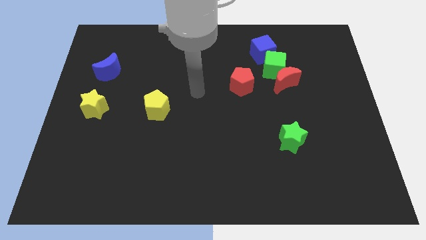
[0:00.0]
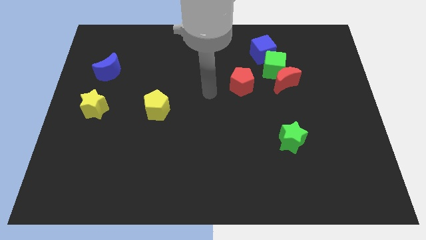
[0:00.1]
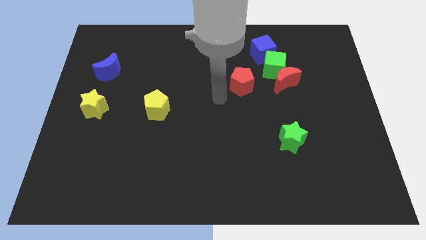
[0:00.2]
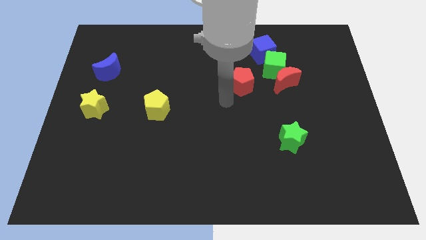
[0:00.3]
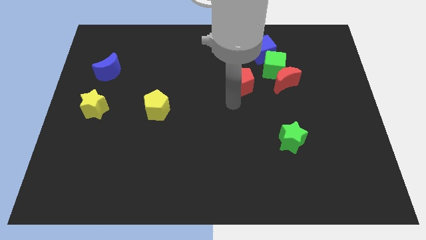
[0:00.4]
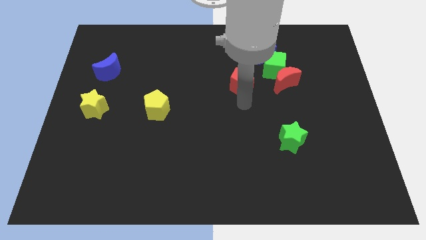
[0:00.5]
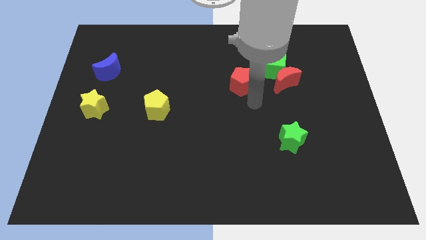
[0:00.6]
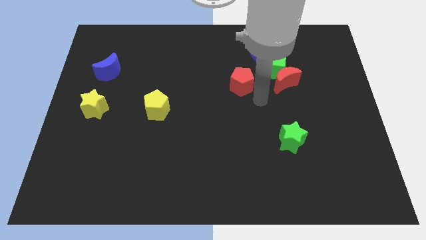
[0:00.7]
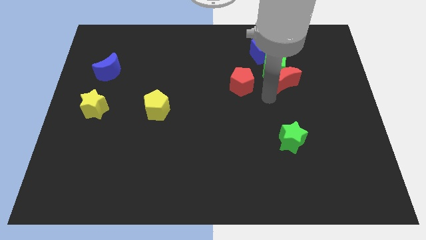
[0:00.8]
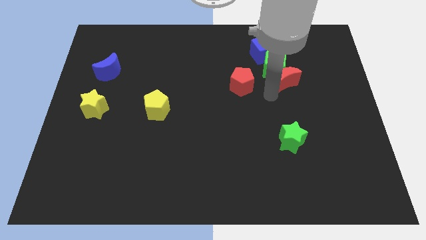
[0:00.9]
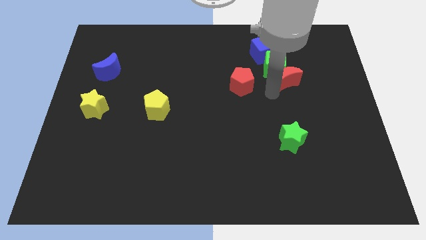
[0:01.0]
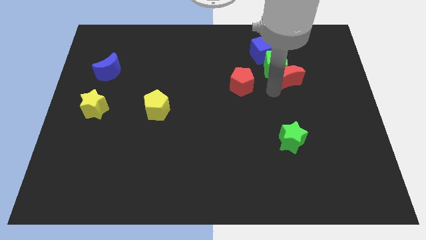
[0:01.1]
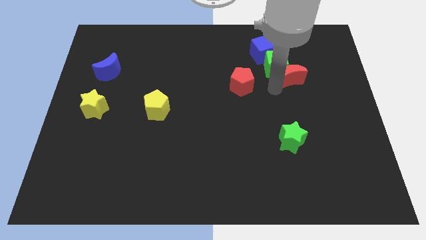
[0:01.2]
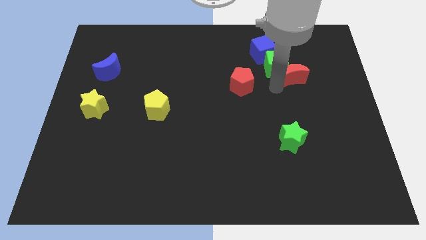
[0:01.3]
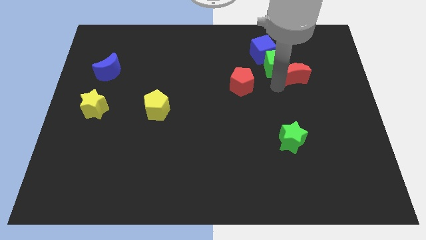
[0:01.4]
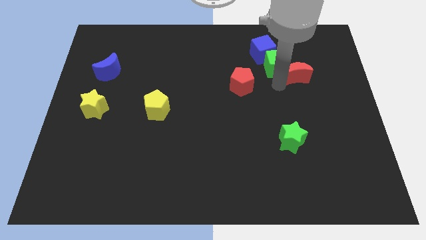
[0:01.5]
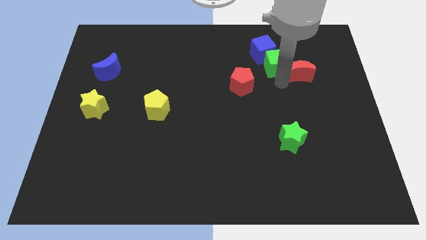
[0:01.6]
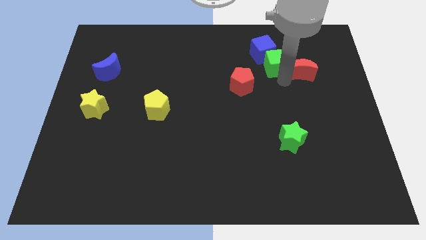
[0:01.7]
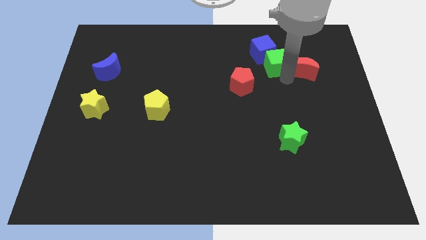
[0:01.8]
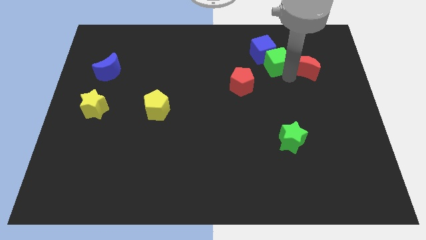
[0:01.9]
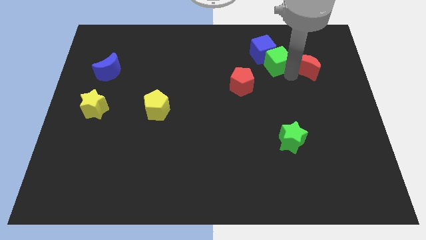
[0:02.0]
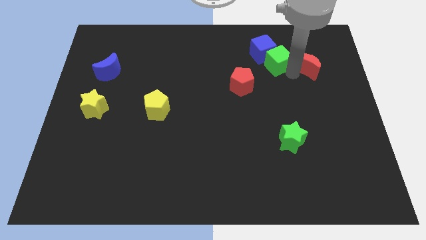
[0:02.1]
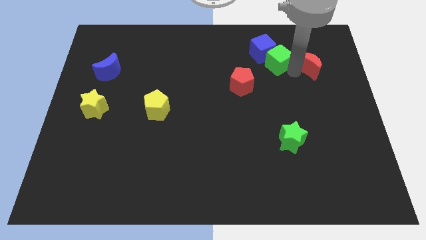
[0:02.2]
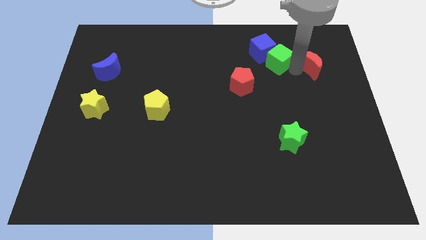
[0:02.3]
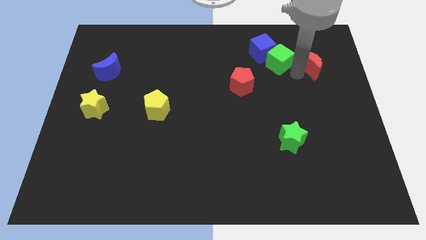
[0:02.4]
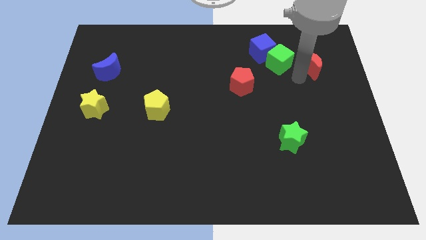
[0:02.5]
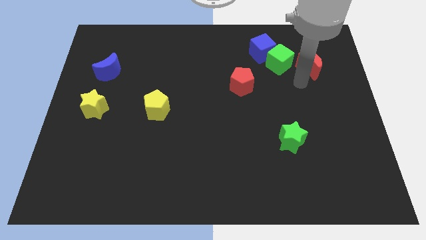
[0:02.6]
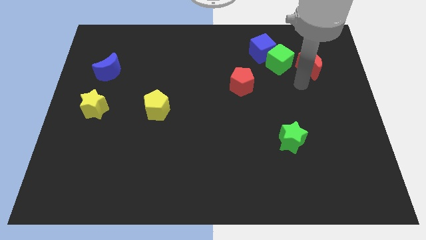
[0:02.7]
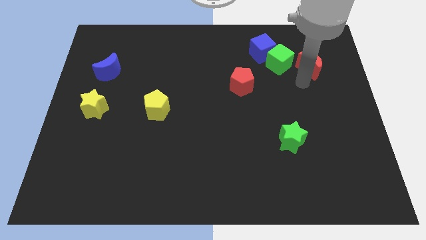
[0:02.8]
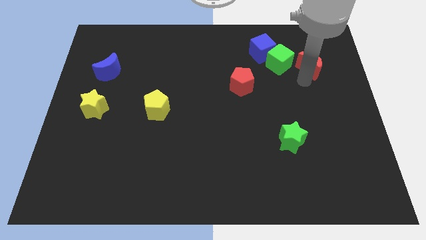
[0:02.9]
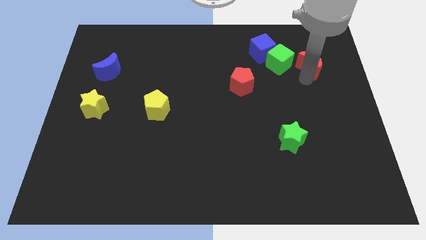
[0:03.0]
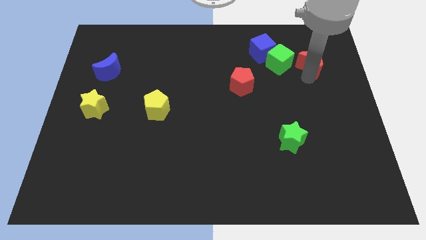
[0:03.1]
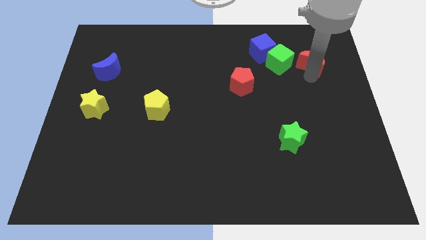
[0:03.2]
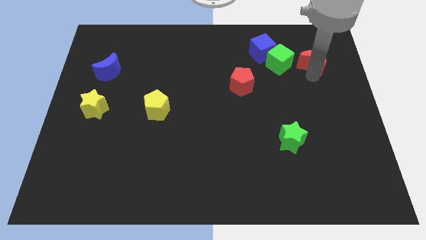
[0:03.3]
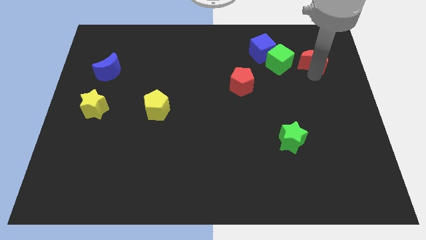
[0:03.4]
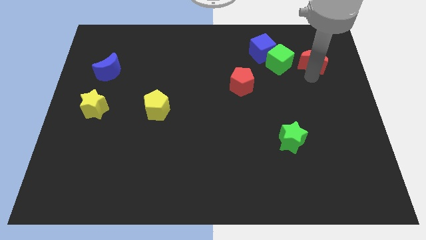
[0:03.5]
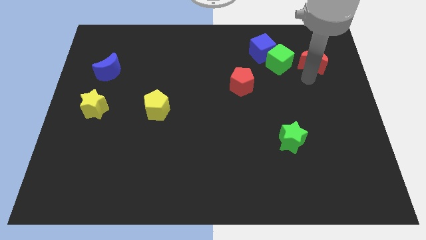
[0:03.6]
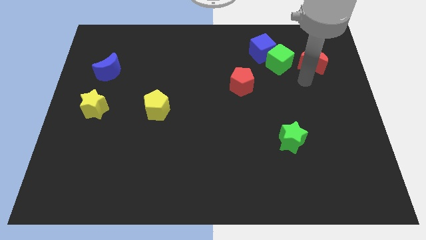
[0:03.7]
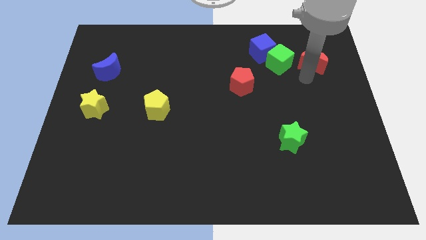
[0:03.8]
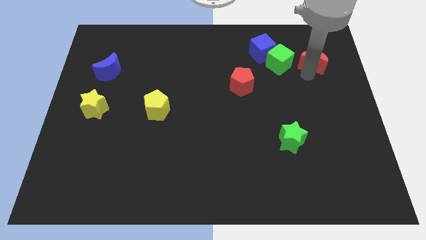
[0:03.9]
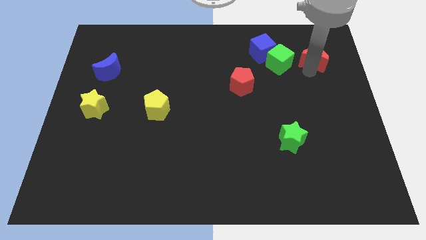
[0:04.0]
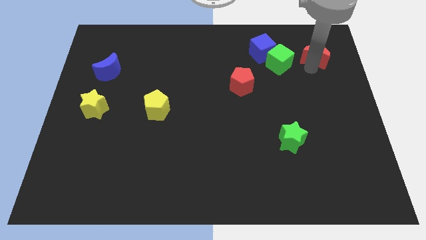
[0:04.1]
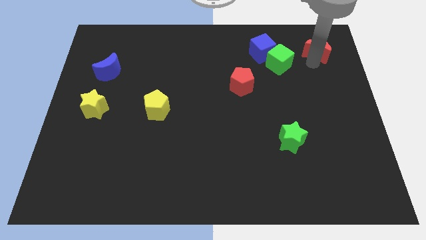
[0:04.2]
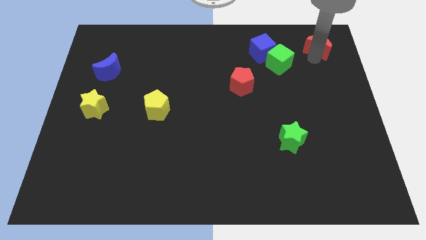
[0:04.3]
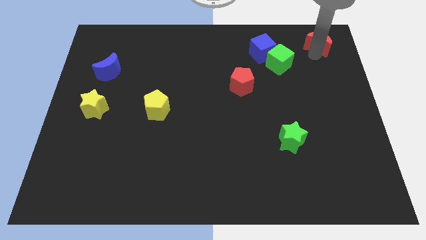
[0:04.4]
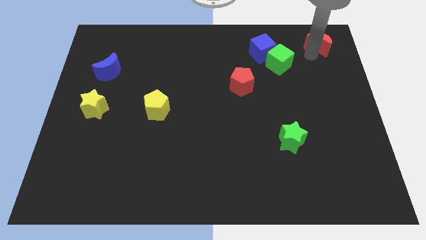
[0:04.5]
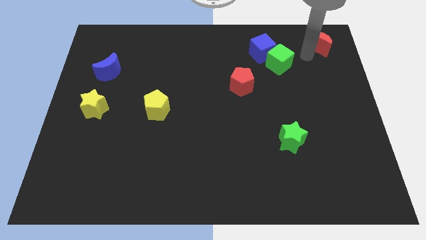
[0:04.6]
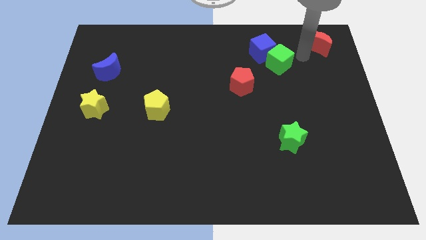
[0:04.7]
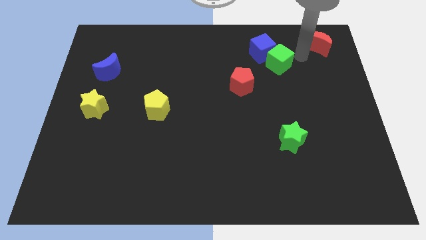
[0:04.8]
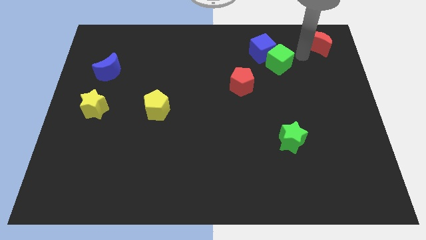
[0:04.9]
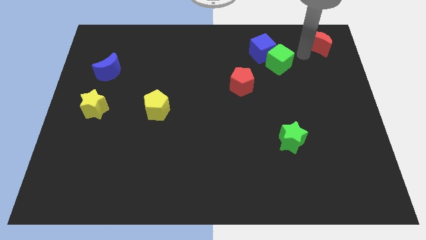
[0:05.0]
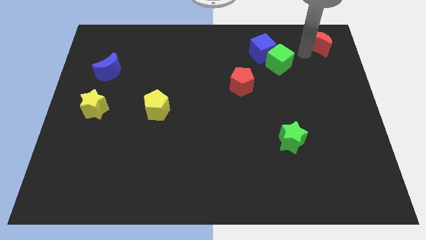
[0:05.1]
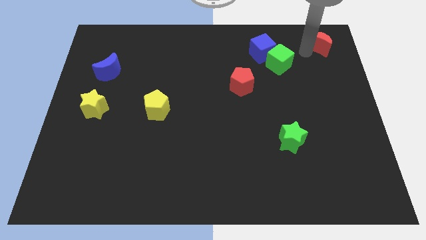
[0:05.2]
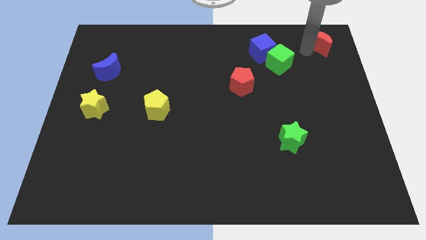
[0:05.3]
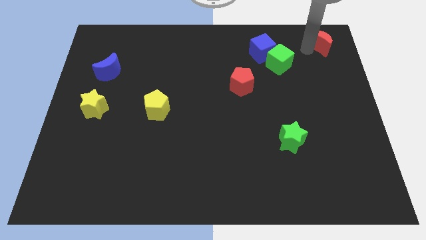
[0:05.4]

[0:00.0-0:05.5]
push the red moon to the top right corner

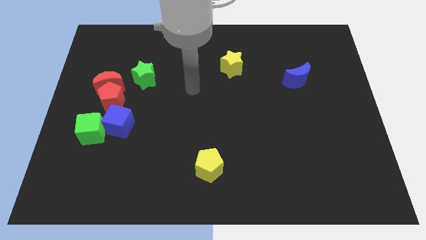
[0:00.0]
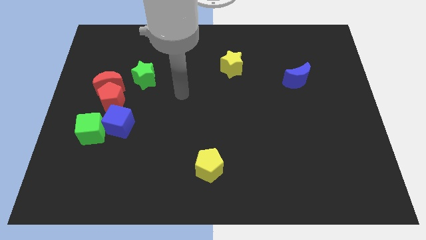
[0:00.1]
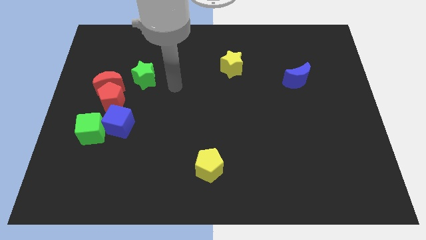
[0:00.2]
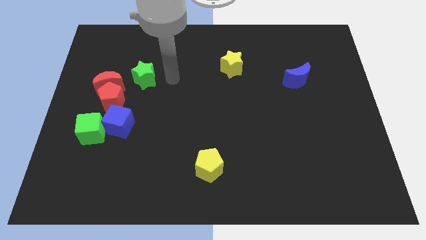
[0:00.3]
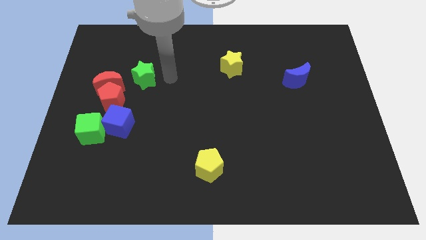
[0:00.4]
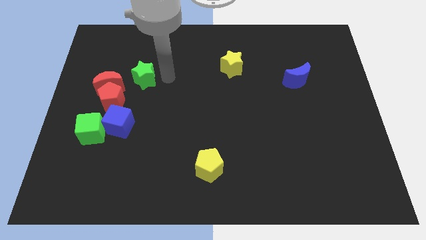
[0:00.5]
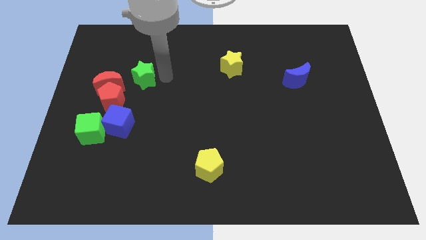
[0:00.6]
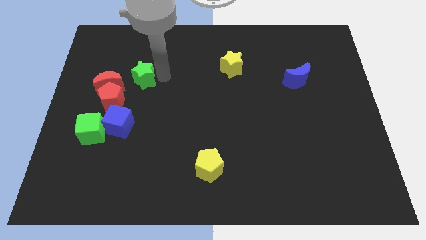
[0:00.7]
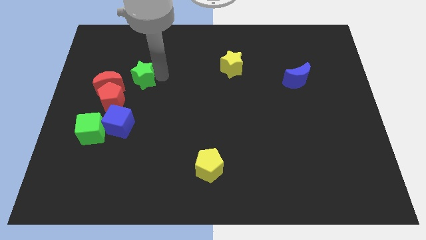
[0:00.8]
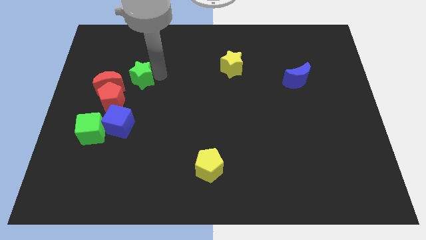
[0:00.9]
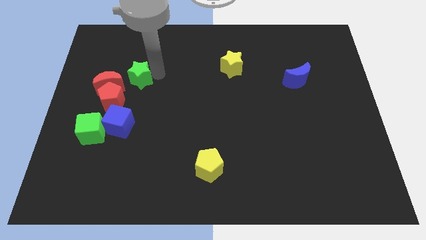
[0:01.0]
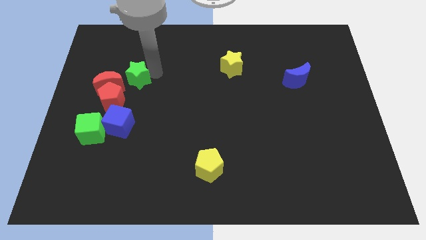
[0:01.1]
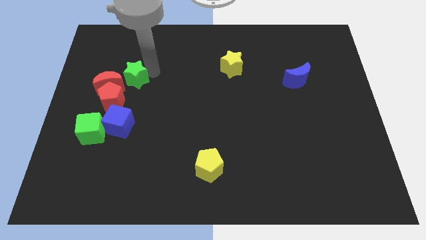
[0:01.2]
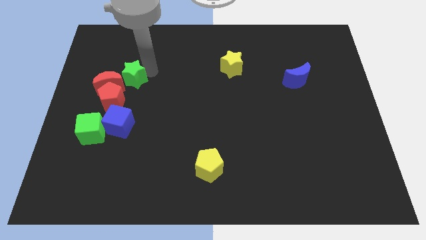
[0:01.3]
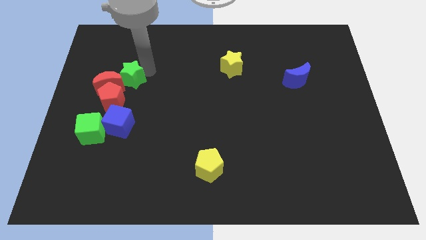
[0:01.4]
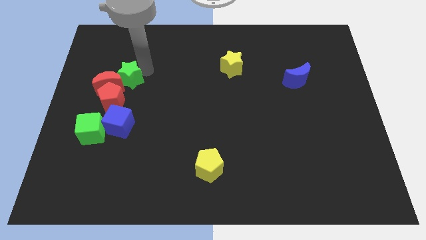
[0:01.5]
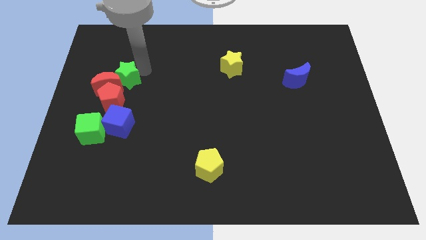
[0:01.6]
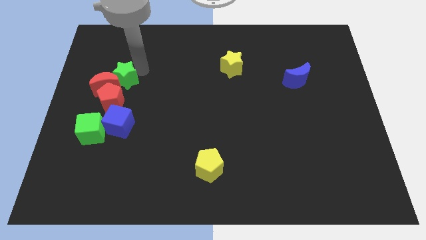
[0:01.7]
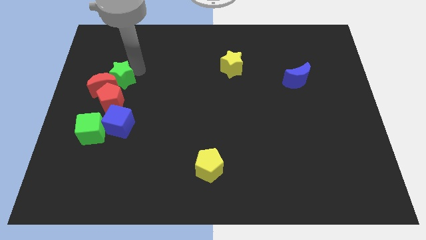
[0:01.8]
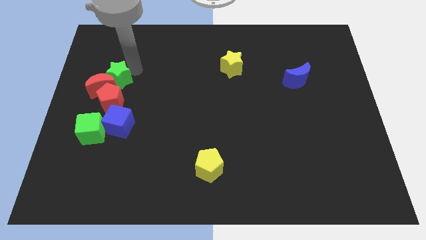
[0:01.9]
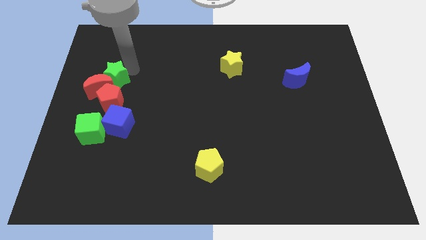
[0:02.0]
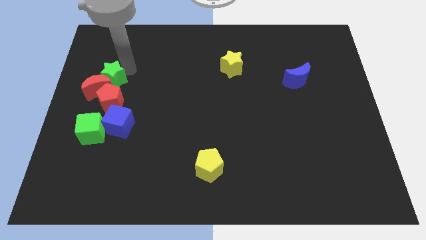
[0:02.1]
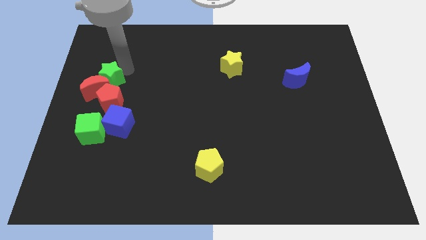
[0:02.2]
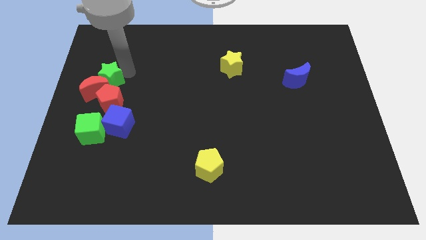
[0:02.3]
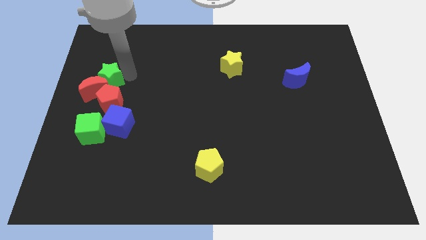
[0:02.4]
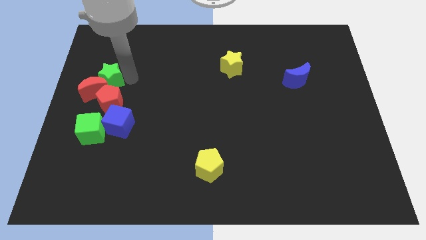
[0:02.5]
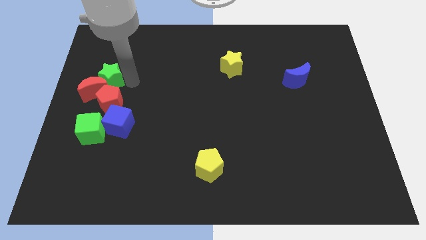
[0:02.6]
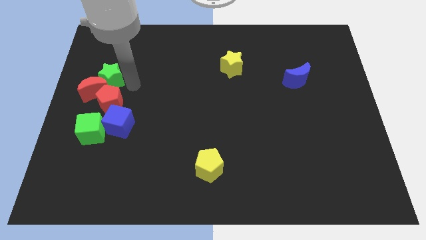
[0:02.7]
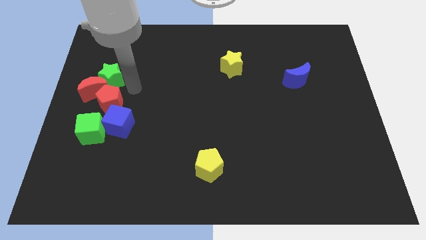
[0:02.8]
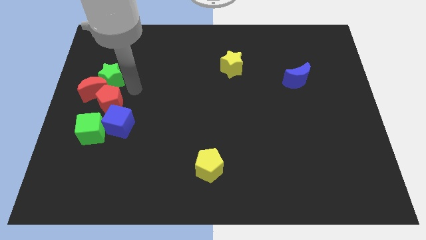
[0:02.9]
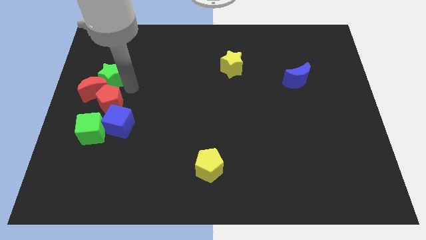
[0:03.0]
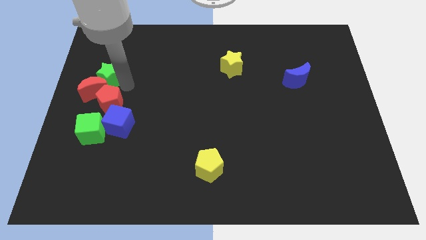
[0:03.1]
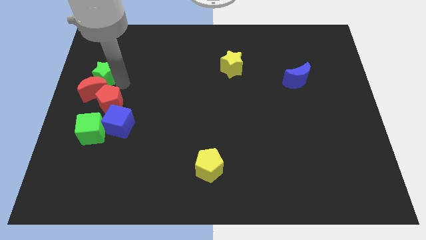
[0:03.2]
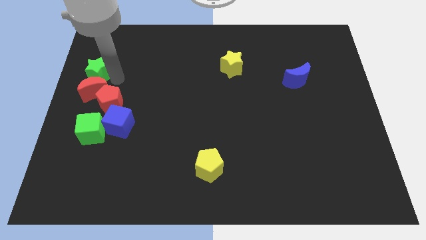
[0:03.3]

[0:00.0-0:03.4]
move the green star to the left side
